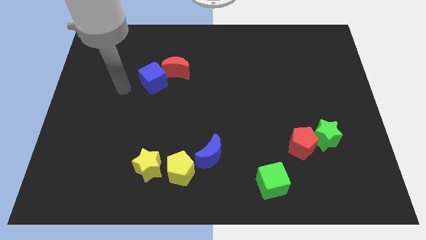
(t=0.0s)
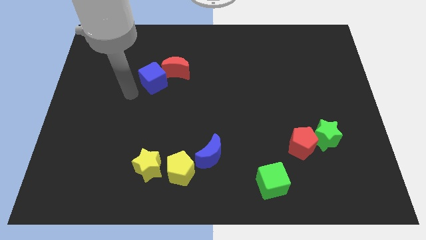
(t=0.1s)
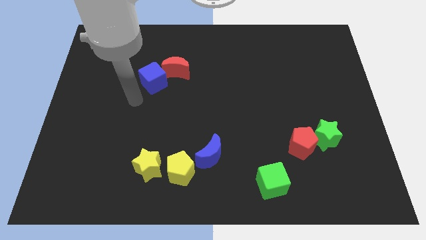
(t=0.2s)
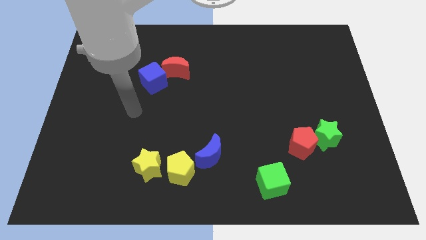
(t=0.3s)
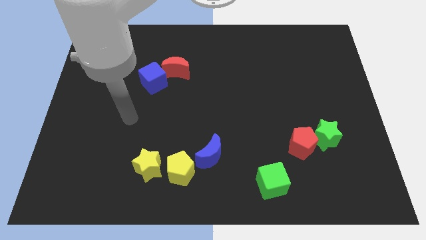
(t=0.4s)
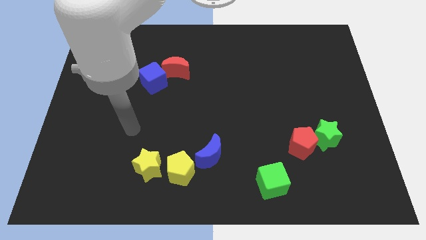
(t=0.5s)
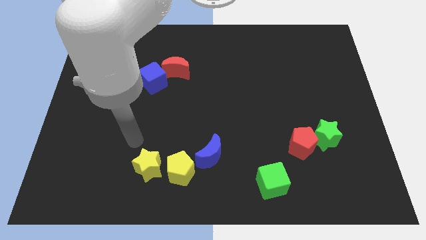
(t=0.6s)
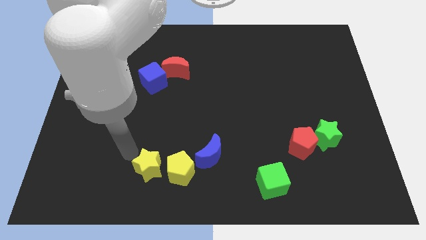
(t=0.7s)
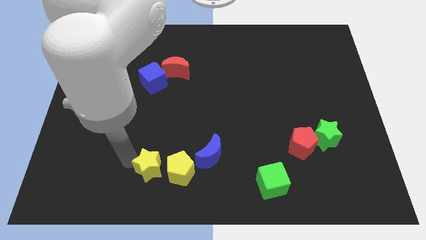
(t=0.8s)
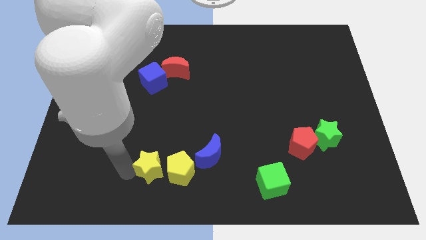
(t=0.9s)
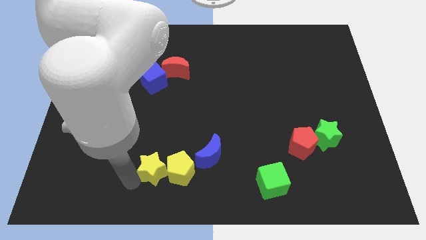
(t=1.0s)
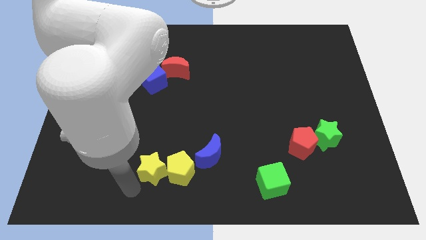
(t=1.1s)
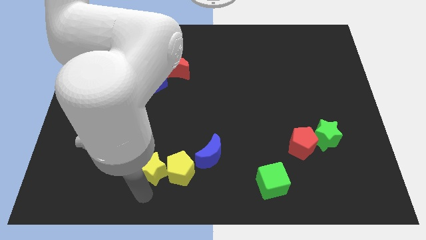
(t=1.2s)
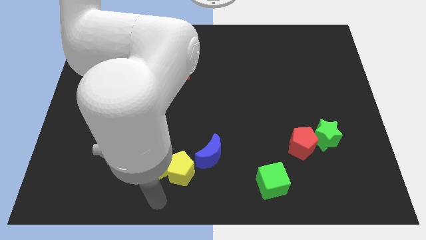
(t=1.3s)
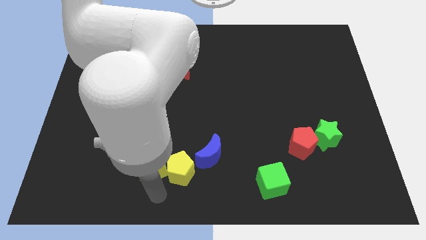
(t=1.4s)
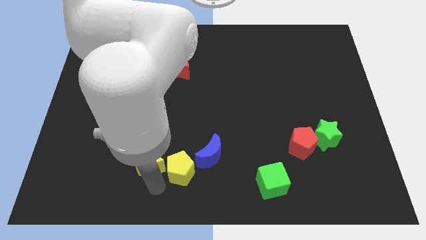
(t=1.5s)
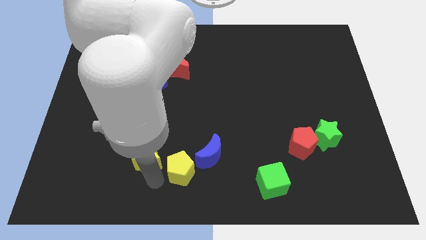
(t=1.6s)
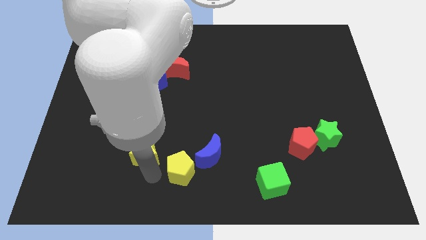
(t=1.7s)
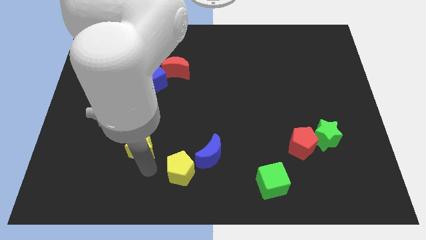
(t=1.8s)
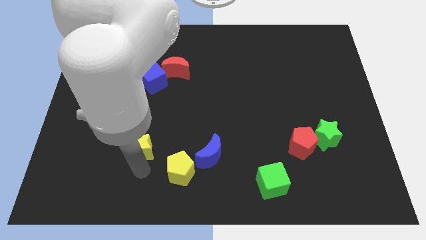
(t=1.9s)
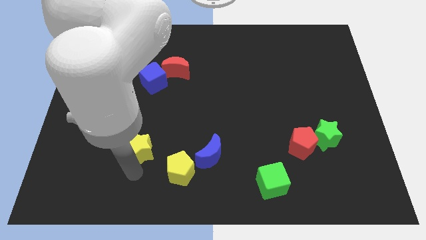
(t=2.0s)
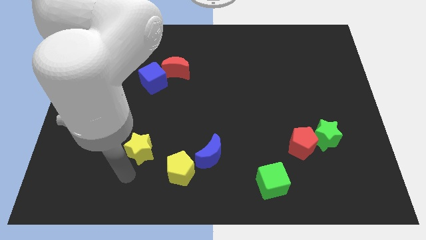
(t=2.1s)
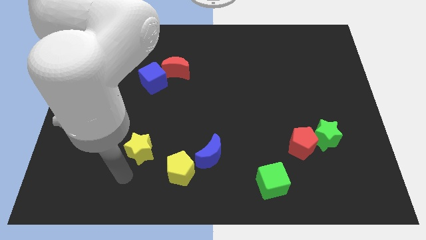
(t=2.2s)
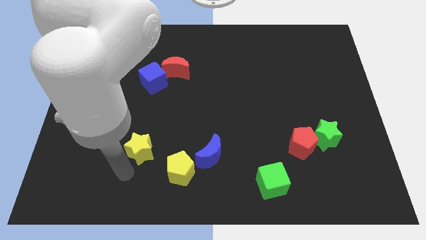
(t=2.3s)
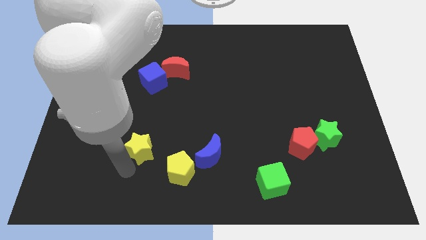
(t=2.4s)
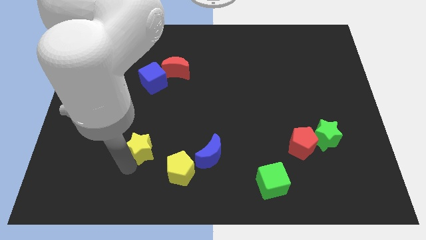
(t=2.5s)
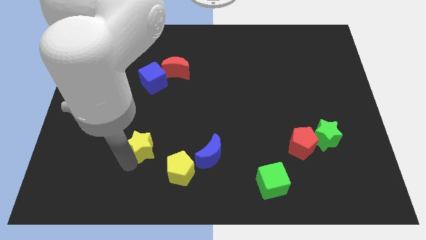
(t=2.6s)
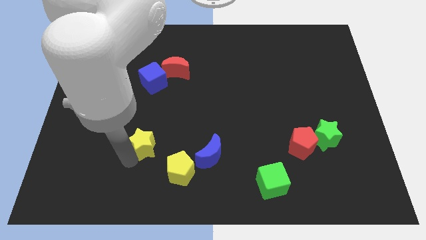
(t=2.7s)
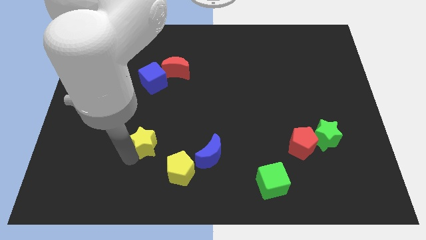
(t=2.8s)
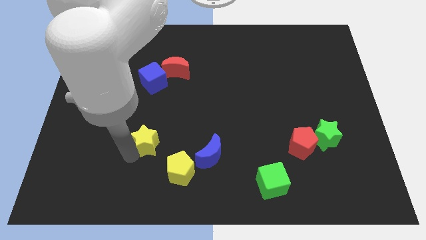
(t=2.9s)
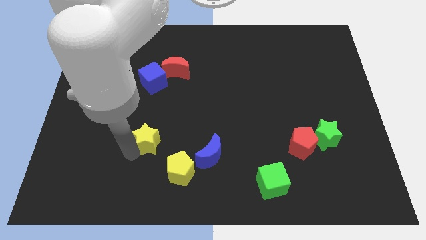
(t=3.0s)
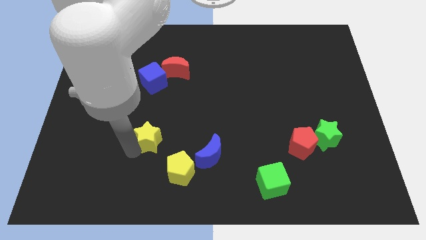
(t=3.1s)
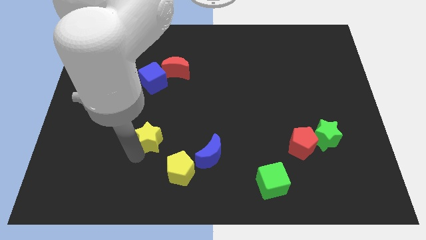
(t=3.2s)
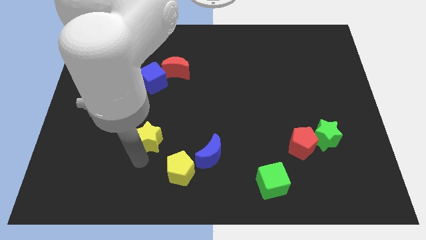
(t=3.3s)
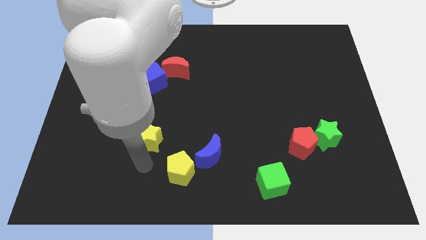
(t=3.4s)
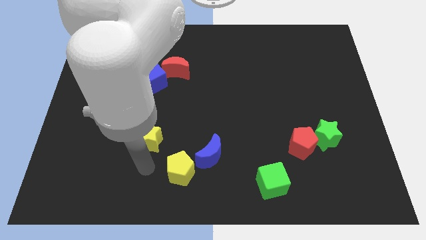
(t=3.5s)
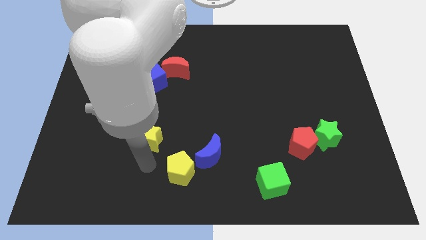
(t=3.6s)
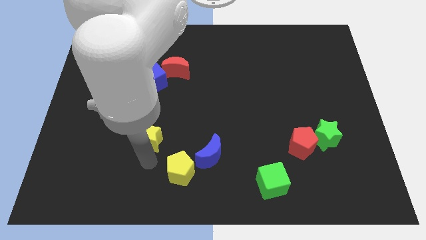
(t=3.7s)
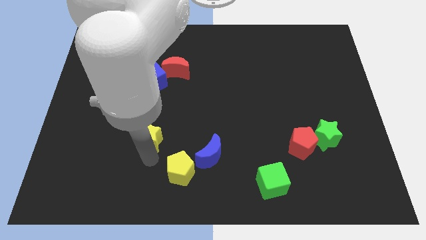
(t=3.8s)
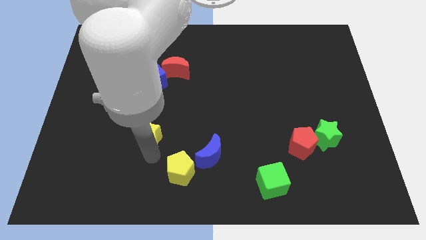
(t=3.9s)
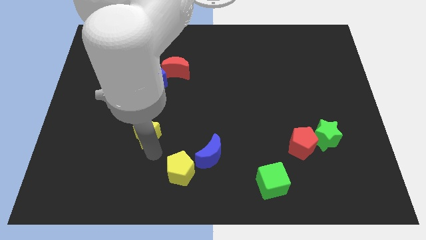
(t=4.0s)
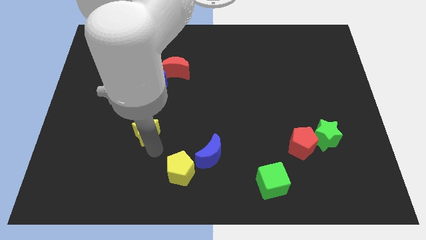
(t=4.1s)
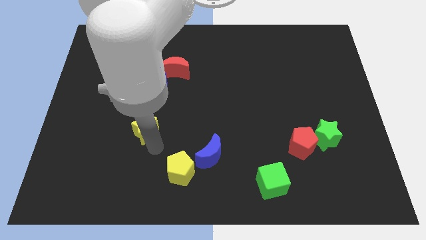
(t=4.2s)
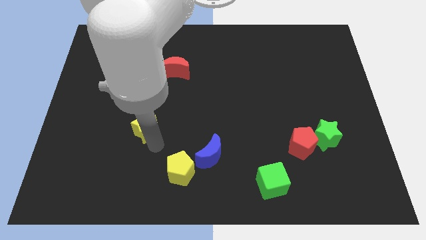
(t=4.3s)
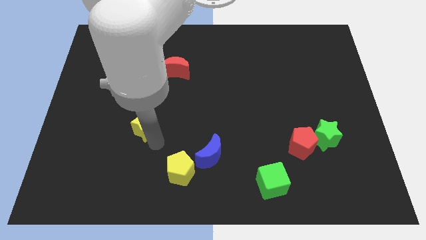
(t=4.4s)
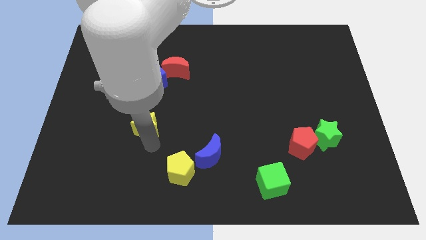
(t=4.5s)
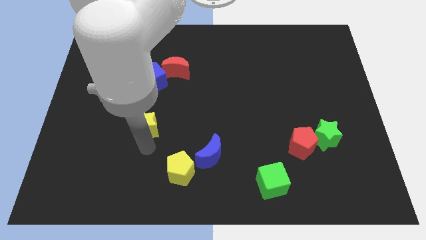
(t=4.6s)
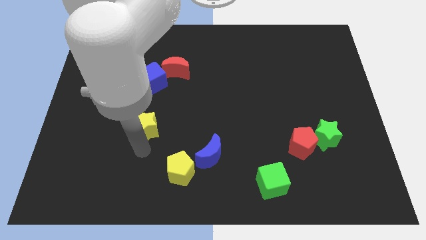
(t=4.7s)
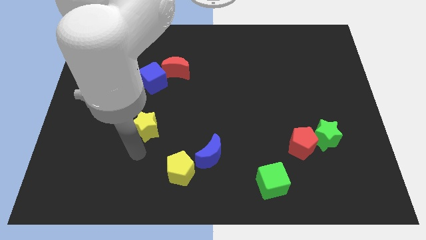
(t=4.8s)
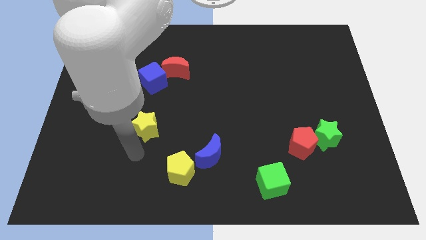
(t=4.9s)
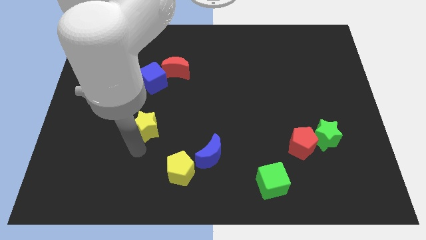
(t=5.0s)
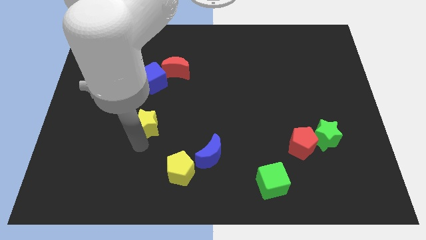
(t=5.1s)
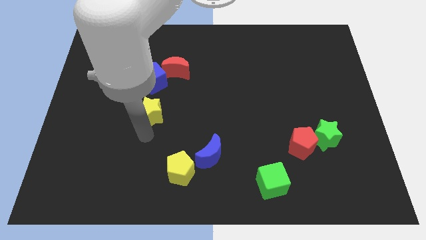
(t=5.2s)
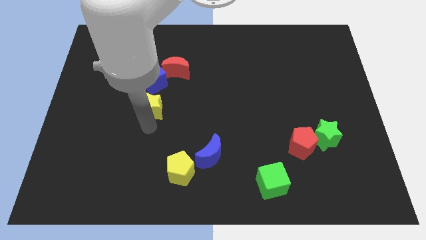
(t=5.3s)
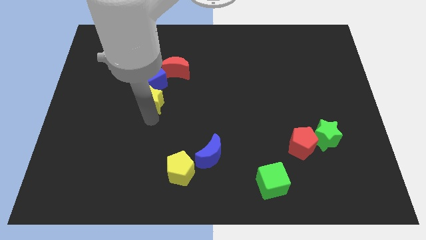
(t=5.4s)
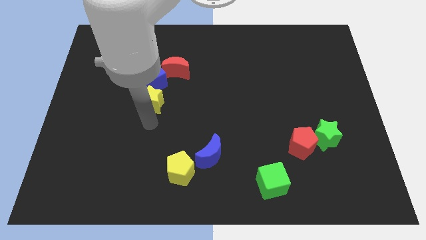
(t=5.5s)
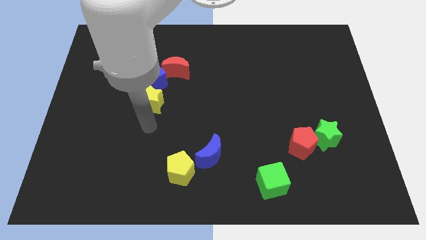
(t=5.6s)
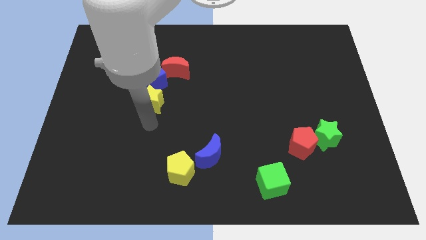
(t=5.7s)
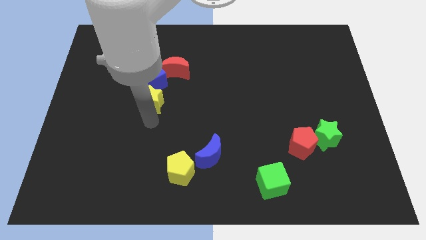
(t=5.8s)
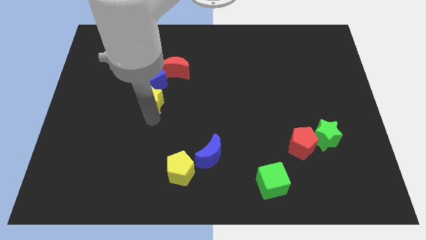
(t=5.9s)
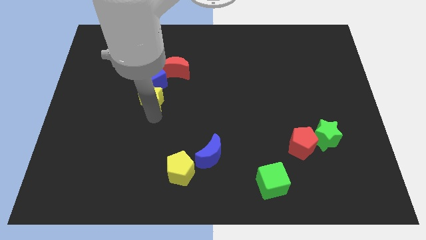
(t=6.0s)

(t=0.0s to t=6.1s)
put the yellow star diagonally down and to the left of the red moon

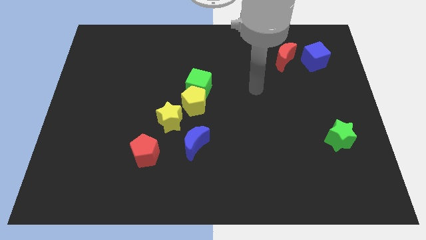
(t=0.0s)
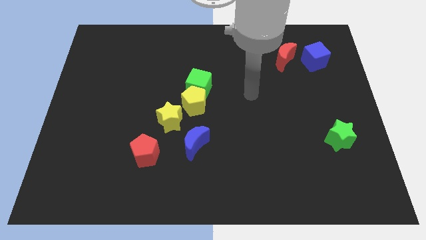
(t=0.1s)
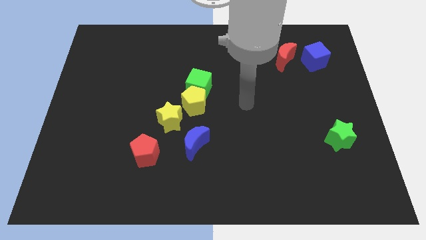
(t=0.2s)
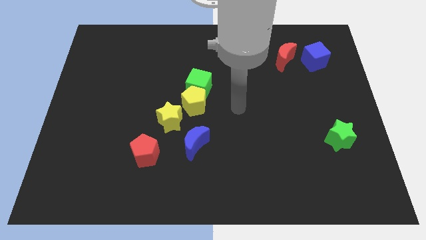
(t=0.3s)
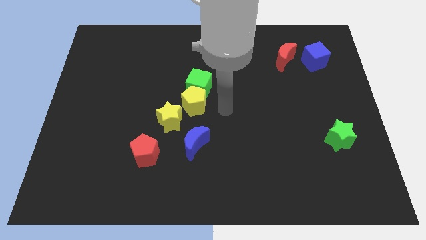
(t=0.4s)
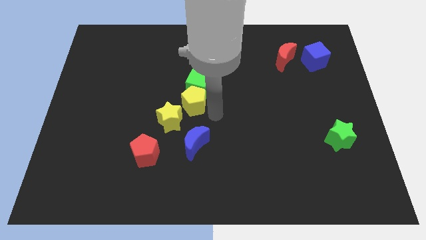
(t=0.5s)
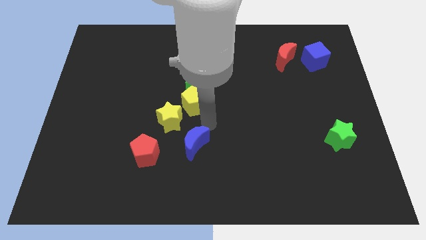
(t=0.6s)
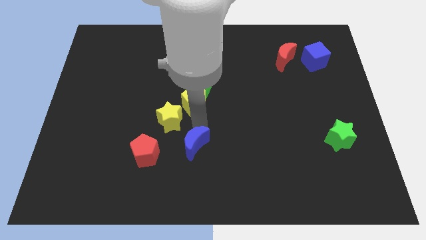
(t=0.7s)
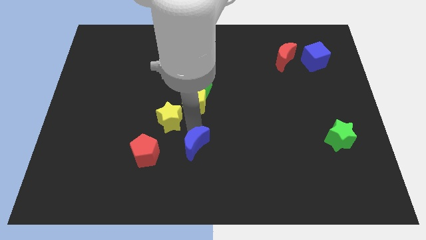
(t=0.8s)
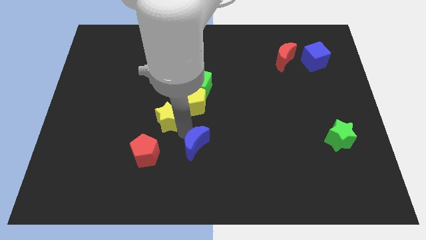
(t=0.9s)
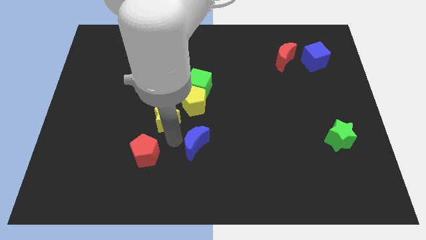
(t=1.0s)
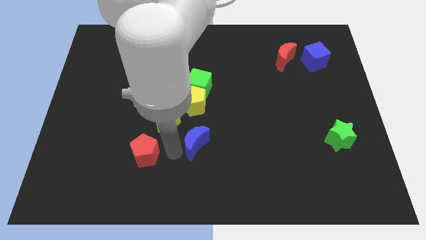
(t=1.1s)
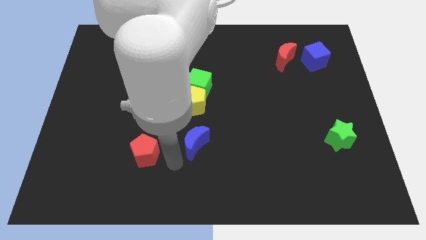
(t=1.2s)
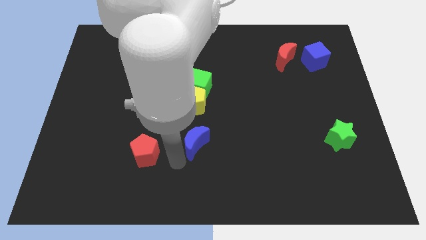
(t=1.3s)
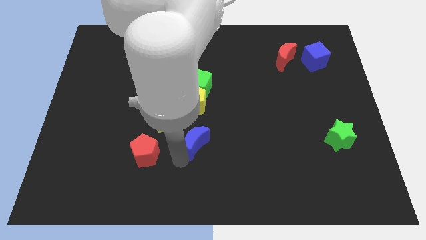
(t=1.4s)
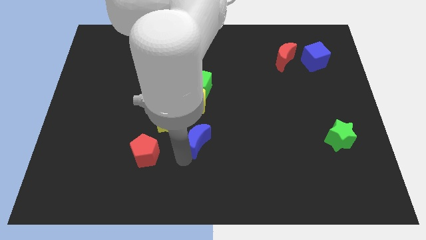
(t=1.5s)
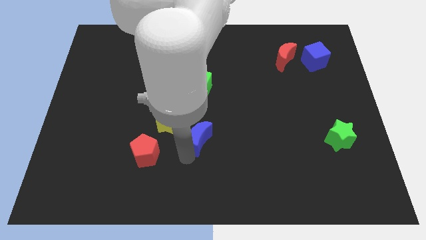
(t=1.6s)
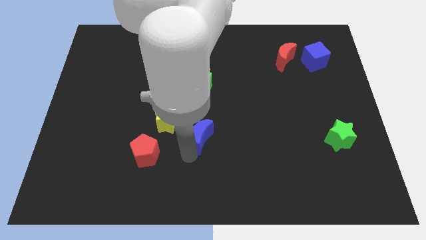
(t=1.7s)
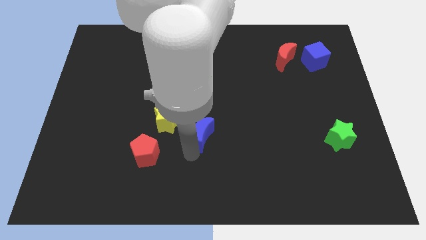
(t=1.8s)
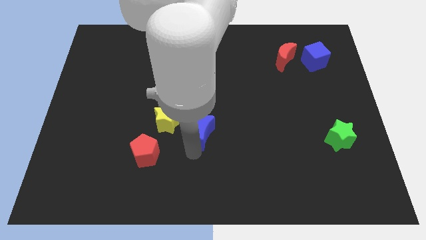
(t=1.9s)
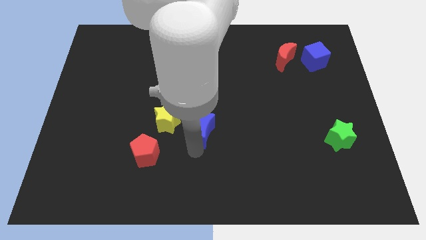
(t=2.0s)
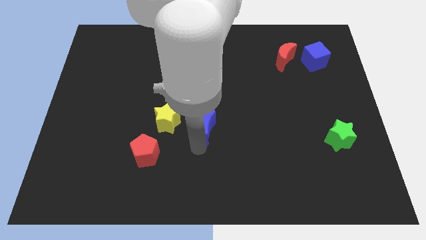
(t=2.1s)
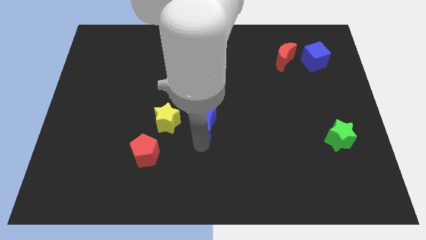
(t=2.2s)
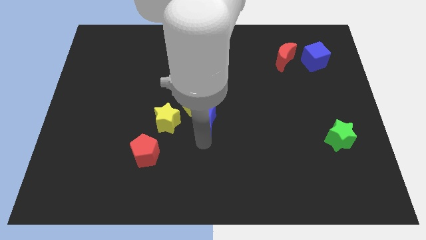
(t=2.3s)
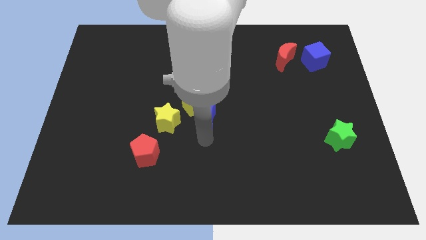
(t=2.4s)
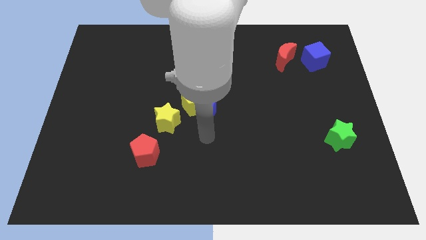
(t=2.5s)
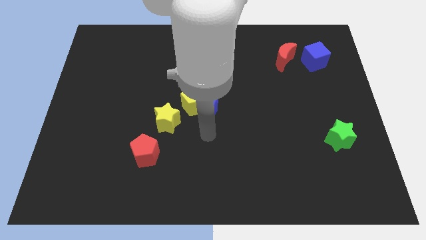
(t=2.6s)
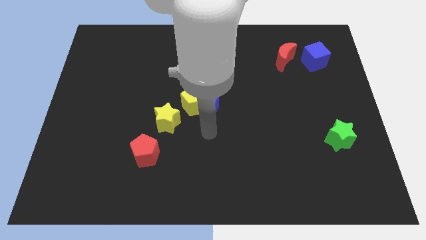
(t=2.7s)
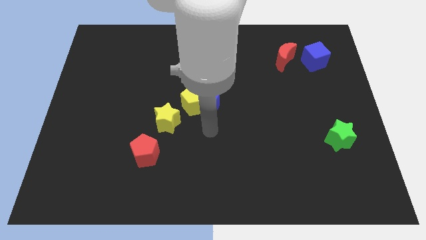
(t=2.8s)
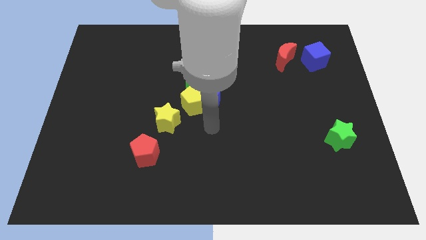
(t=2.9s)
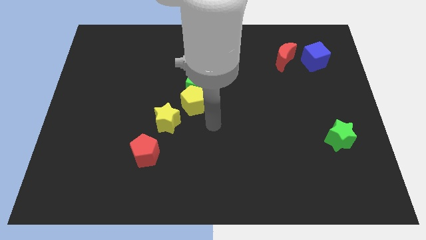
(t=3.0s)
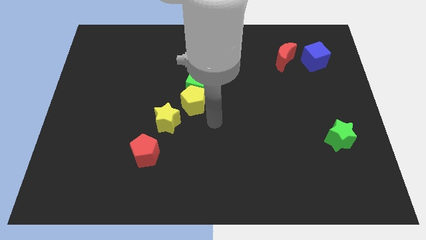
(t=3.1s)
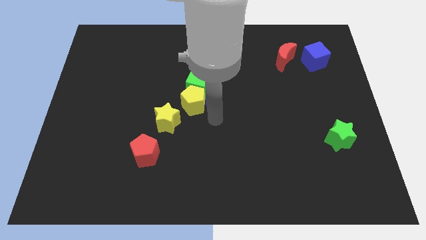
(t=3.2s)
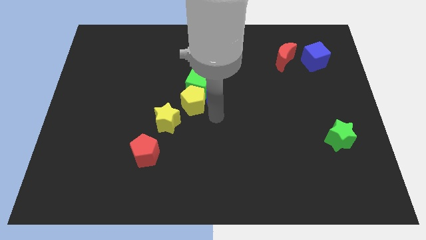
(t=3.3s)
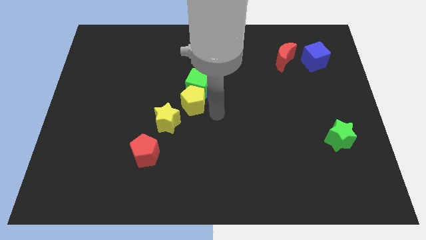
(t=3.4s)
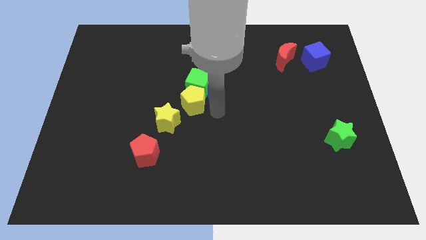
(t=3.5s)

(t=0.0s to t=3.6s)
push the blue moon to the top right of the green cube
